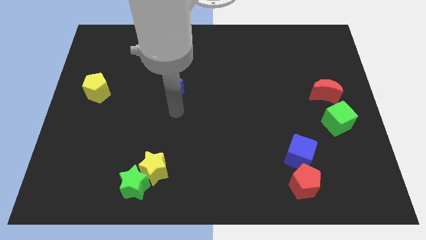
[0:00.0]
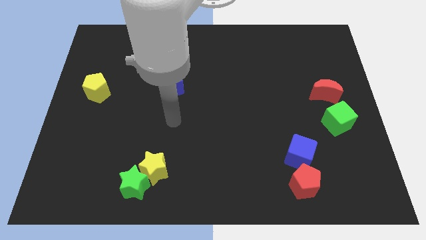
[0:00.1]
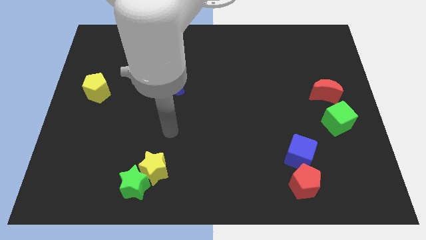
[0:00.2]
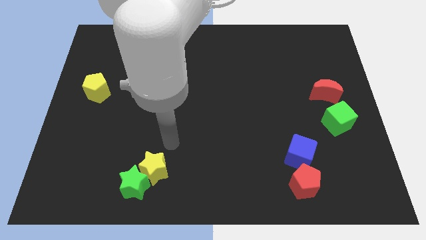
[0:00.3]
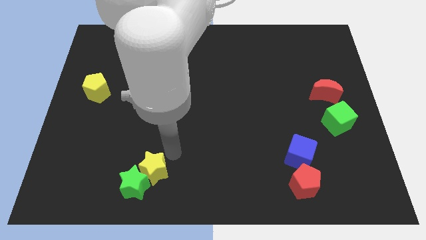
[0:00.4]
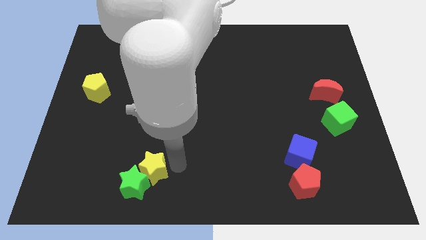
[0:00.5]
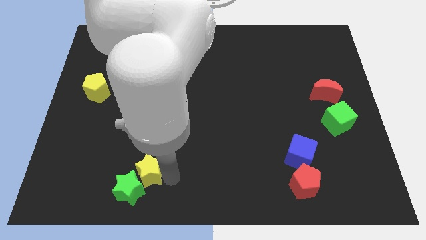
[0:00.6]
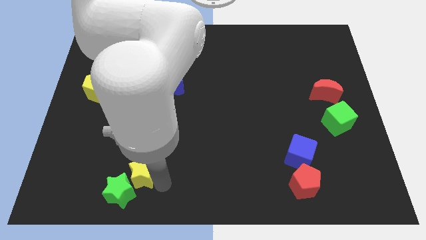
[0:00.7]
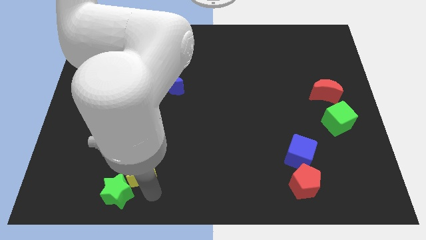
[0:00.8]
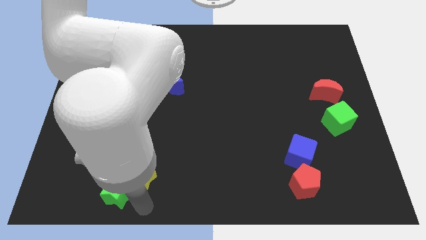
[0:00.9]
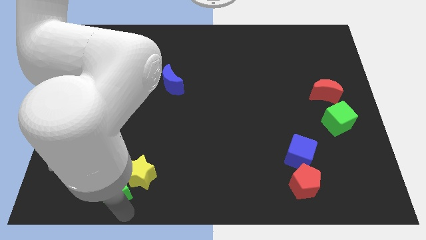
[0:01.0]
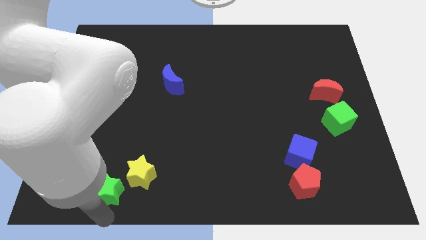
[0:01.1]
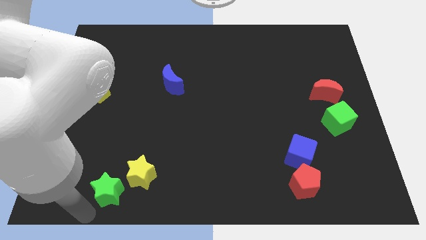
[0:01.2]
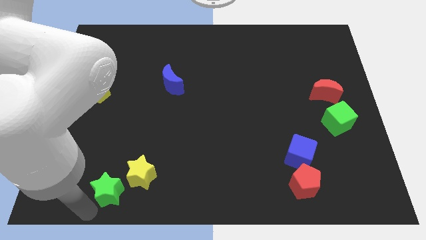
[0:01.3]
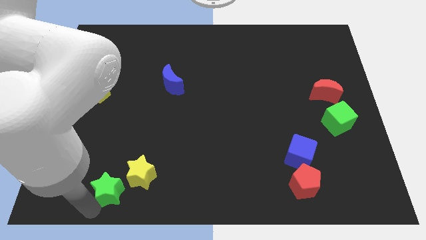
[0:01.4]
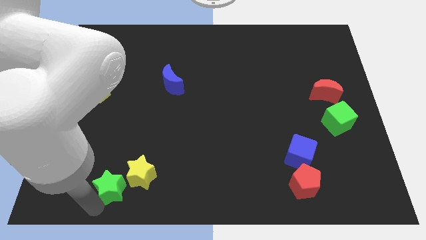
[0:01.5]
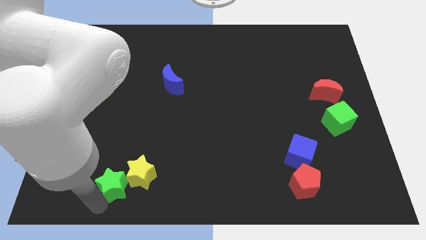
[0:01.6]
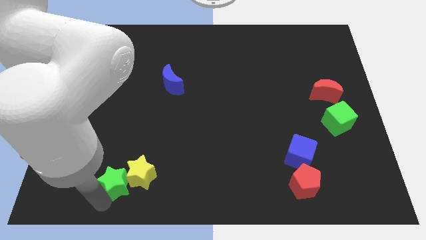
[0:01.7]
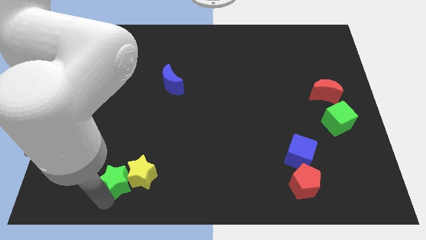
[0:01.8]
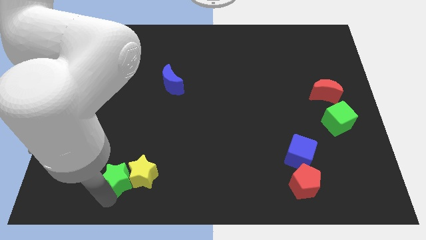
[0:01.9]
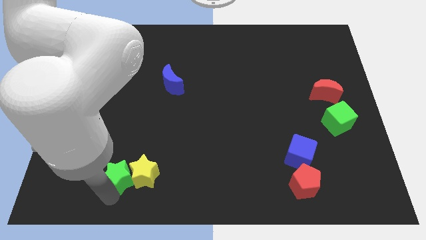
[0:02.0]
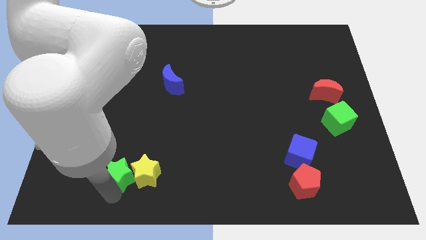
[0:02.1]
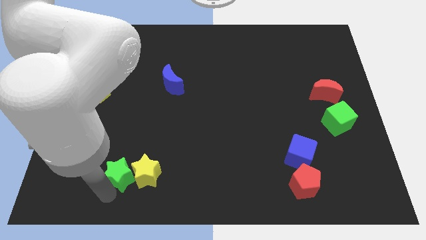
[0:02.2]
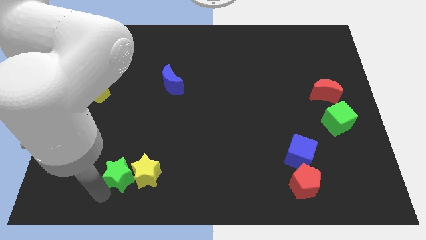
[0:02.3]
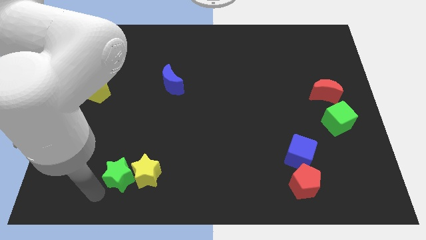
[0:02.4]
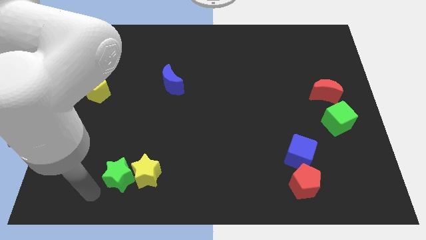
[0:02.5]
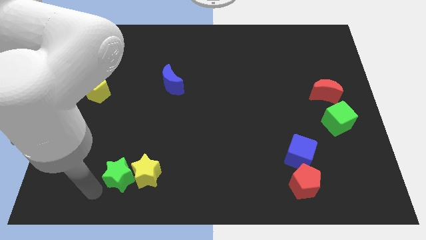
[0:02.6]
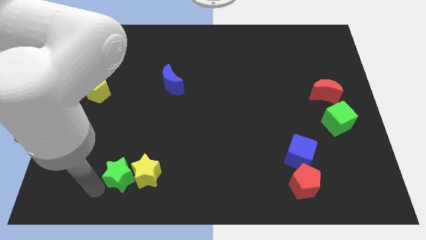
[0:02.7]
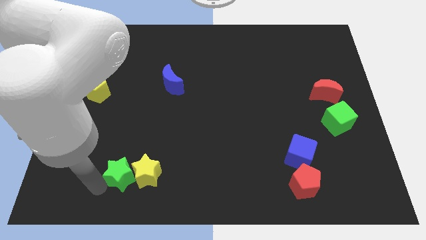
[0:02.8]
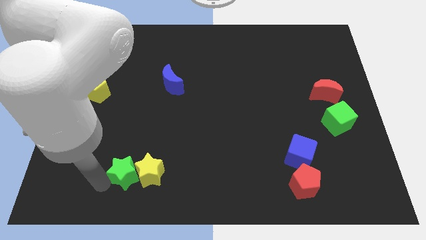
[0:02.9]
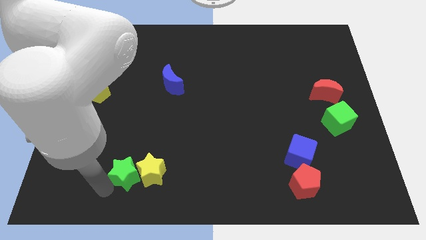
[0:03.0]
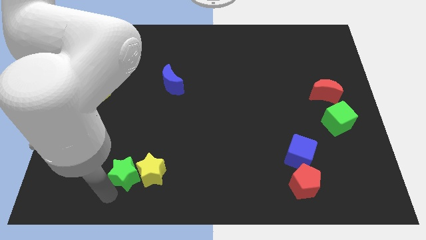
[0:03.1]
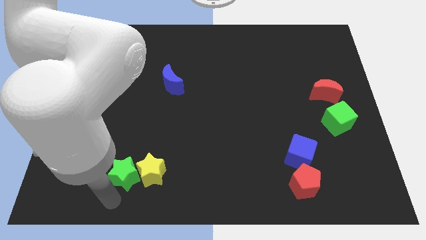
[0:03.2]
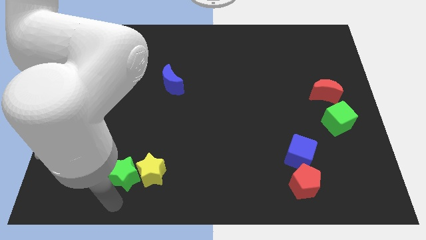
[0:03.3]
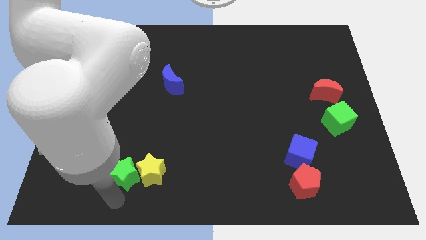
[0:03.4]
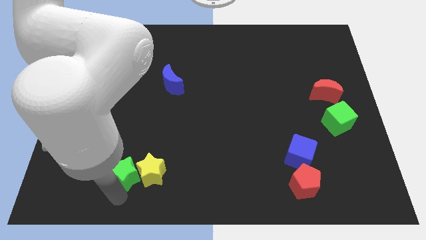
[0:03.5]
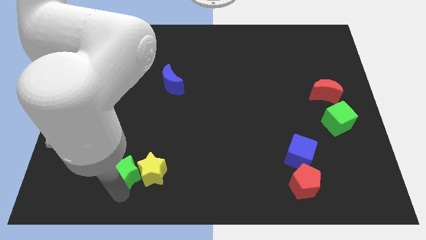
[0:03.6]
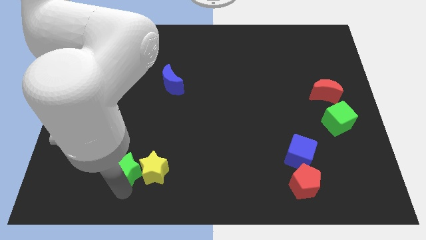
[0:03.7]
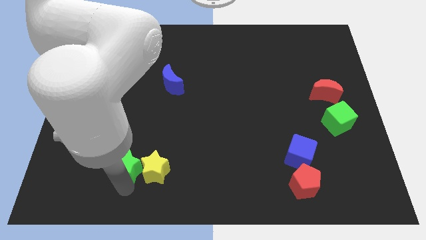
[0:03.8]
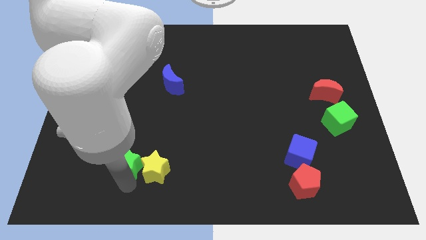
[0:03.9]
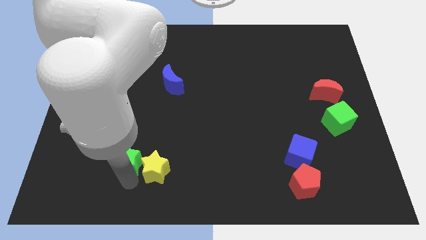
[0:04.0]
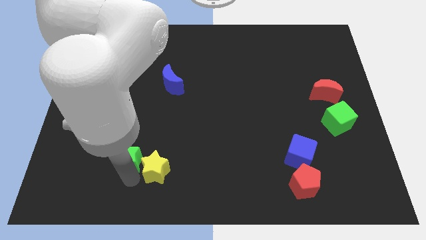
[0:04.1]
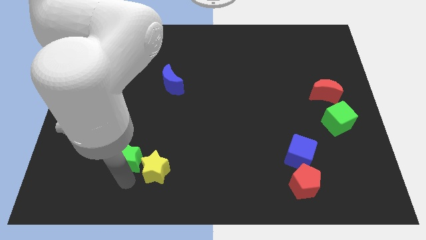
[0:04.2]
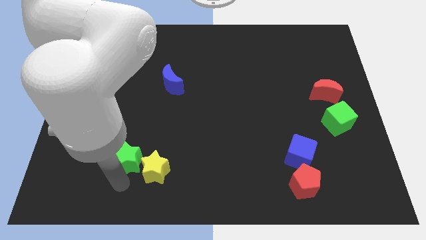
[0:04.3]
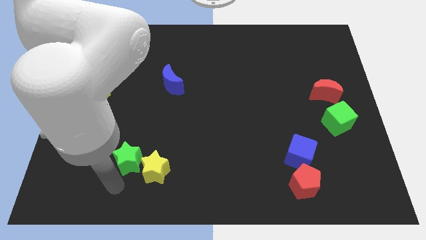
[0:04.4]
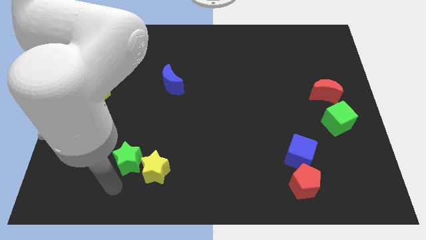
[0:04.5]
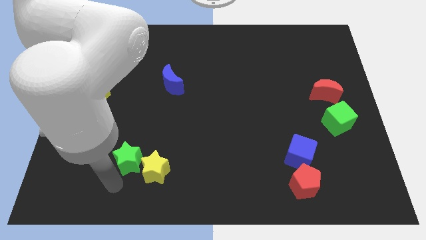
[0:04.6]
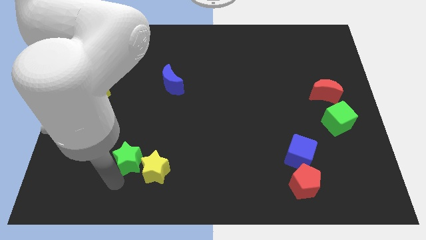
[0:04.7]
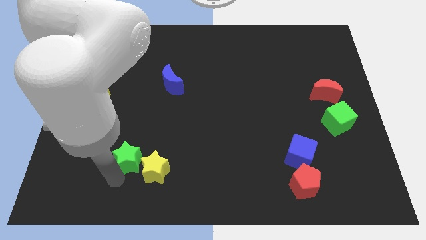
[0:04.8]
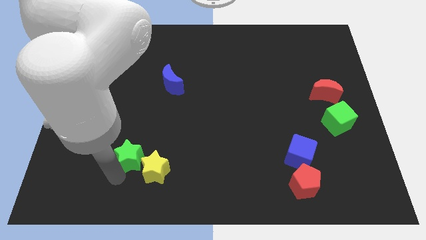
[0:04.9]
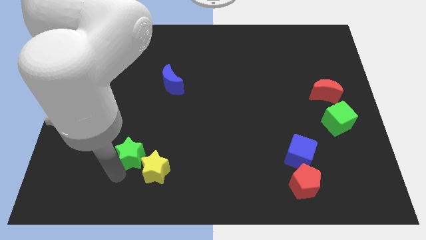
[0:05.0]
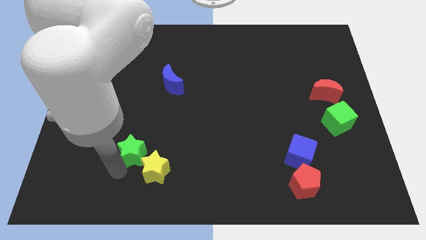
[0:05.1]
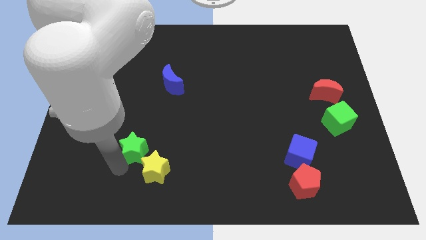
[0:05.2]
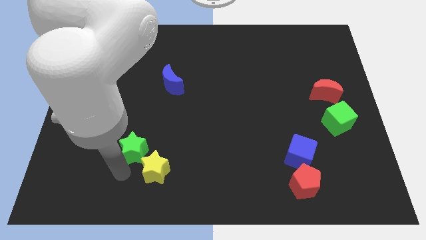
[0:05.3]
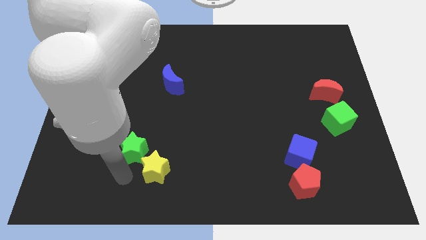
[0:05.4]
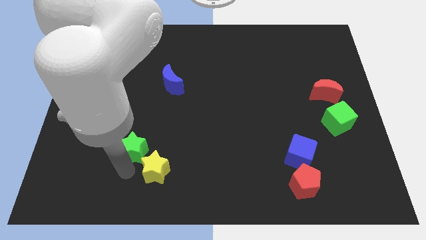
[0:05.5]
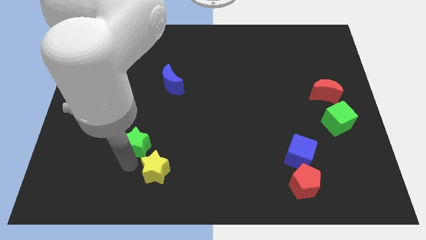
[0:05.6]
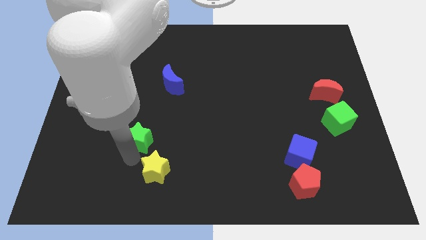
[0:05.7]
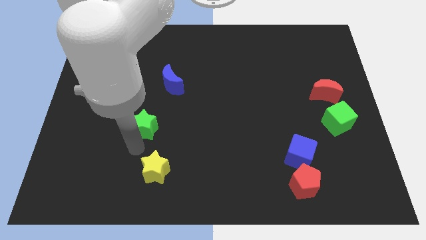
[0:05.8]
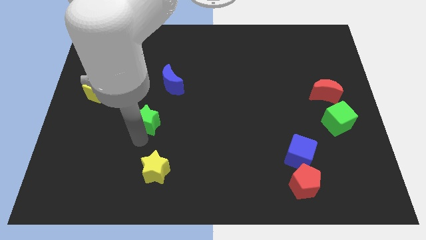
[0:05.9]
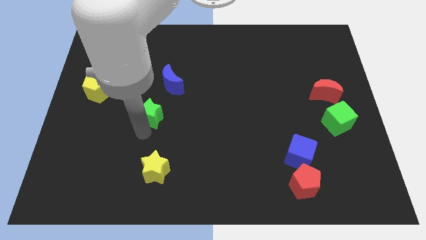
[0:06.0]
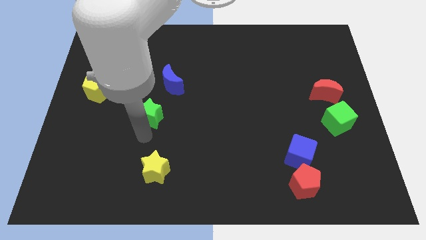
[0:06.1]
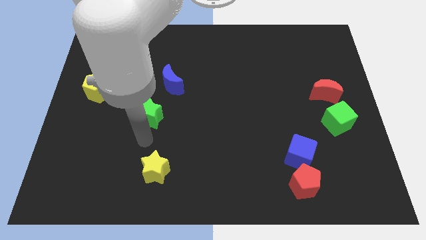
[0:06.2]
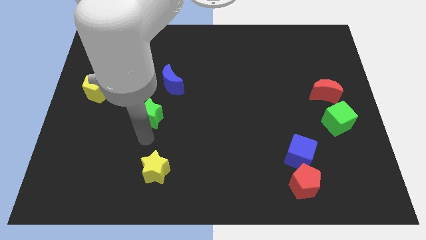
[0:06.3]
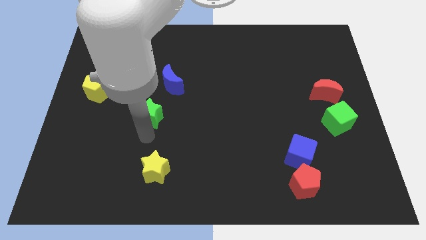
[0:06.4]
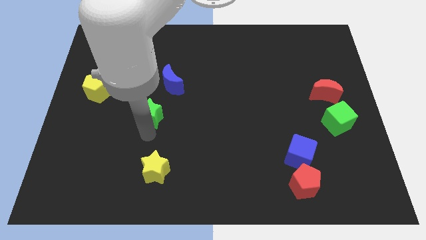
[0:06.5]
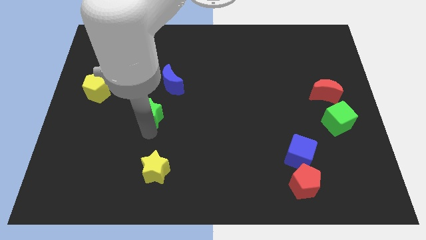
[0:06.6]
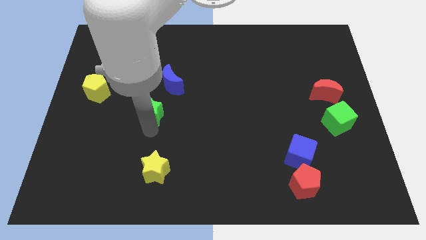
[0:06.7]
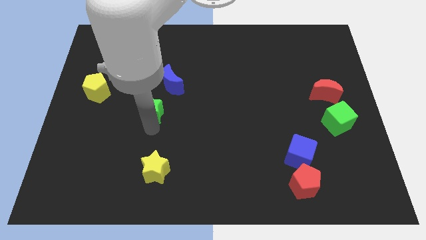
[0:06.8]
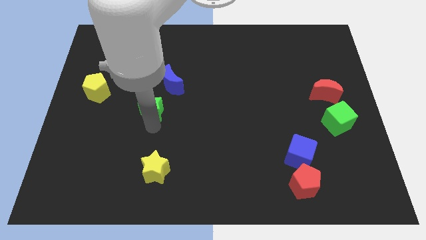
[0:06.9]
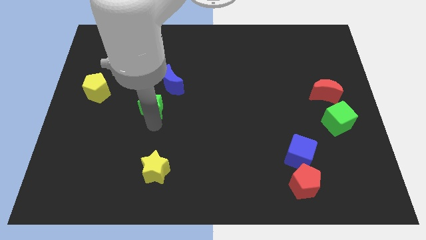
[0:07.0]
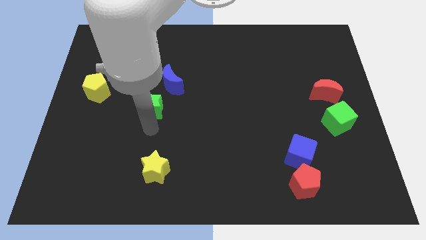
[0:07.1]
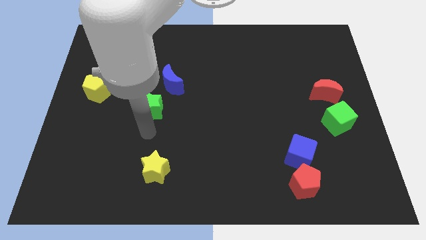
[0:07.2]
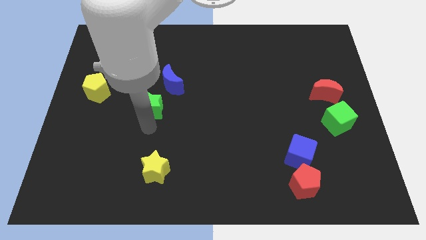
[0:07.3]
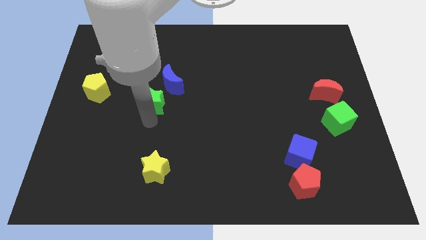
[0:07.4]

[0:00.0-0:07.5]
move the green star up

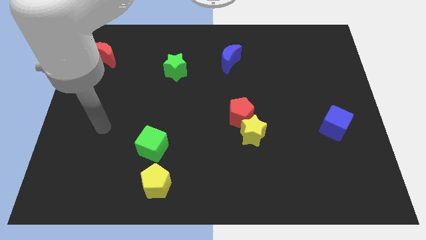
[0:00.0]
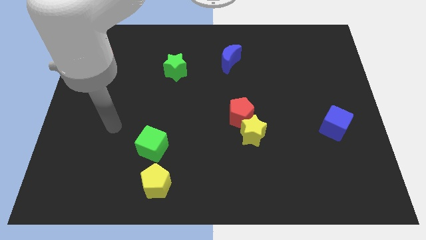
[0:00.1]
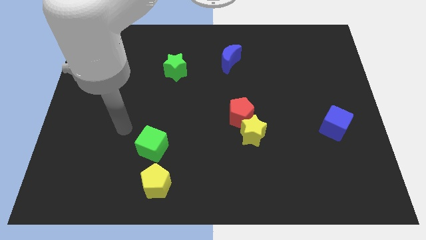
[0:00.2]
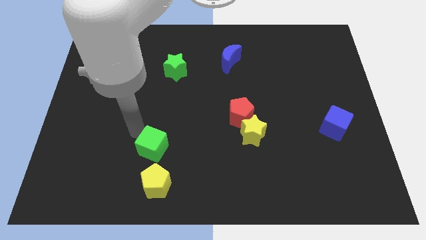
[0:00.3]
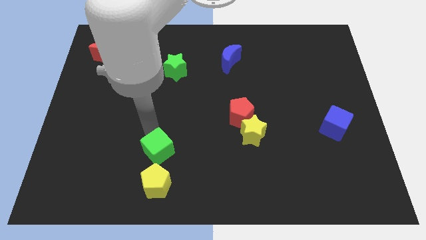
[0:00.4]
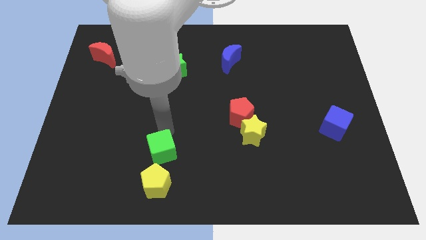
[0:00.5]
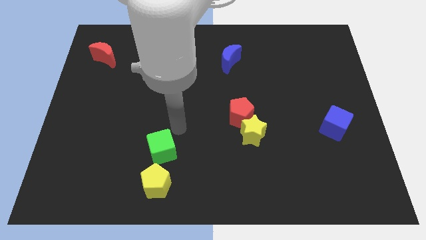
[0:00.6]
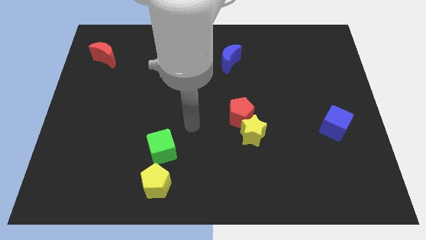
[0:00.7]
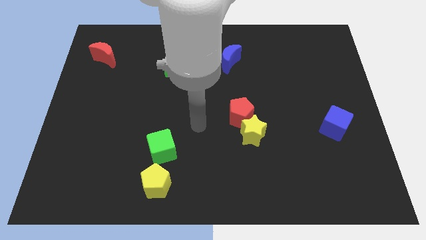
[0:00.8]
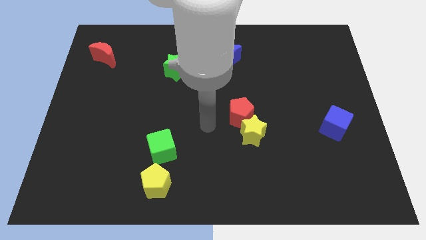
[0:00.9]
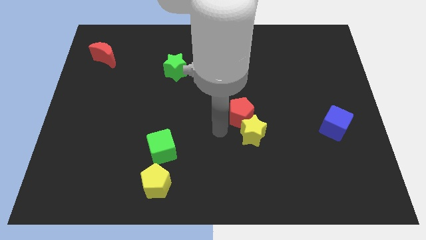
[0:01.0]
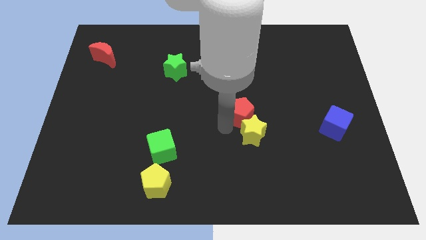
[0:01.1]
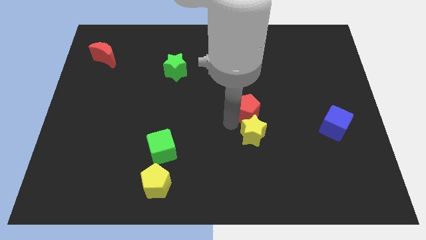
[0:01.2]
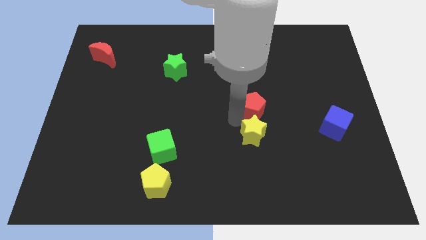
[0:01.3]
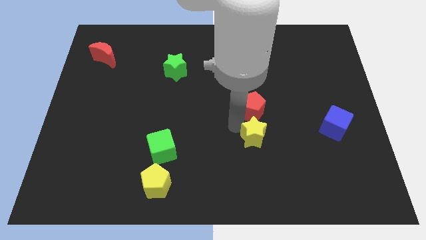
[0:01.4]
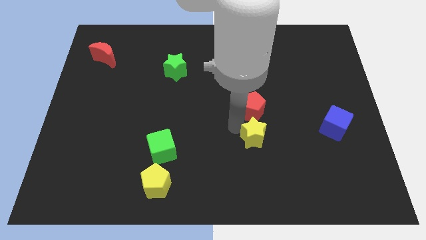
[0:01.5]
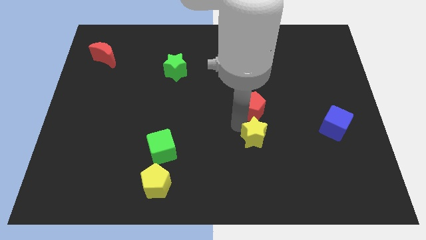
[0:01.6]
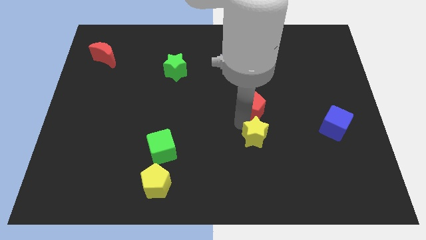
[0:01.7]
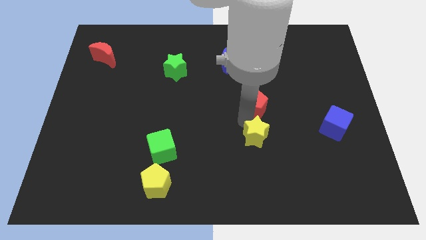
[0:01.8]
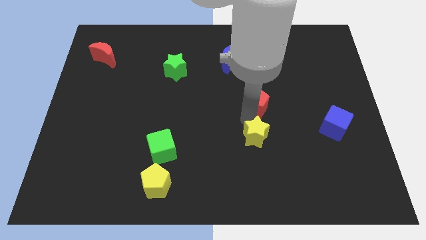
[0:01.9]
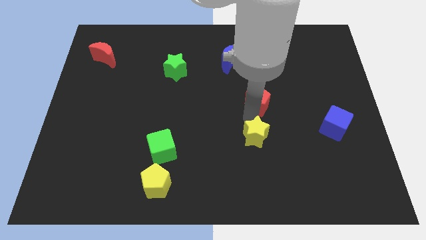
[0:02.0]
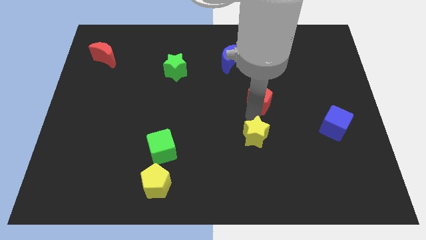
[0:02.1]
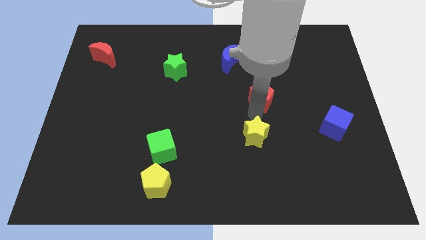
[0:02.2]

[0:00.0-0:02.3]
move the red pentagon up and to the right a little bit
